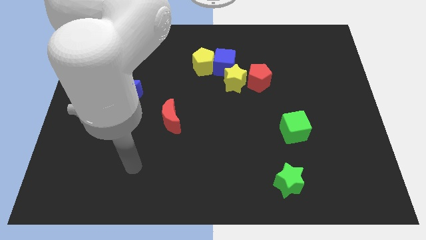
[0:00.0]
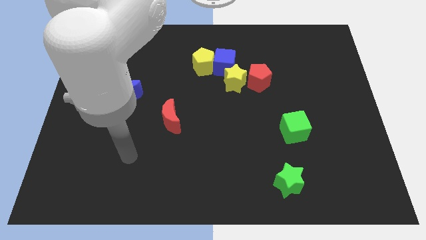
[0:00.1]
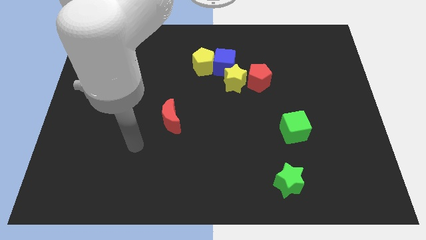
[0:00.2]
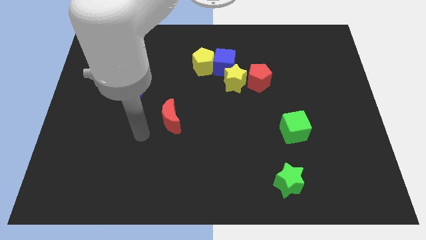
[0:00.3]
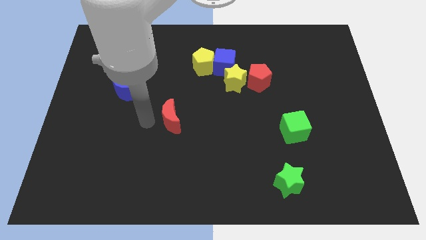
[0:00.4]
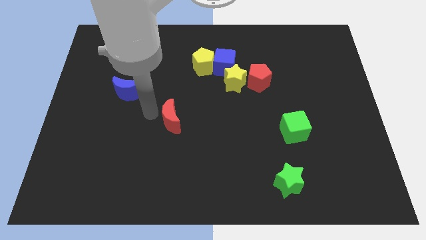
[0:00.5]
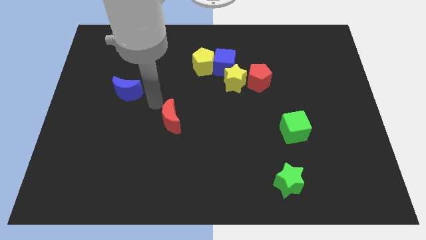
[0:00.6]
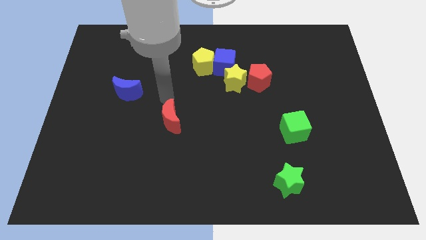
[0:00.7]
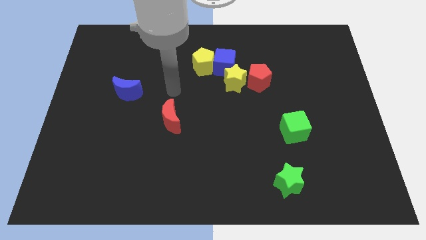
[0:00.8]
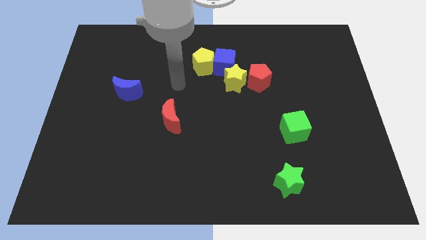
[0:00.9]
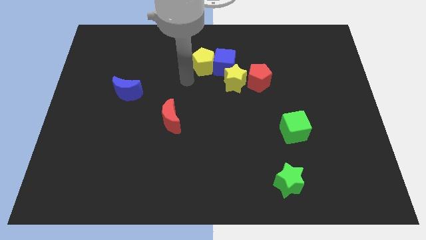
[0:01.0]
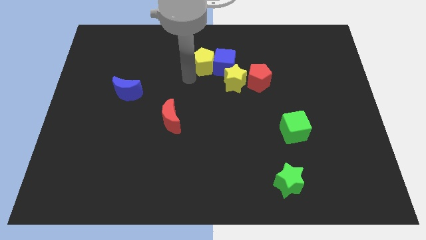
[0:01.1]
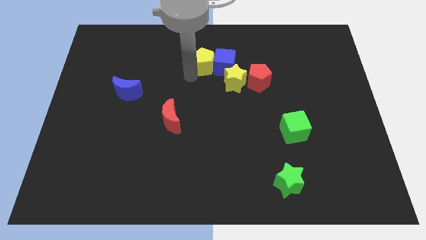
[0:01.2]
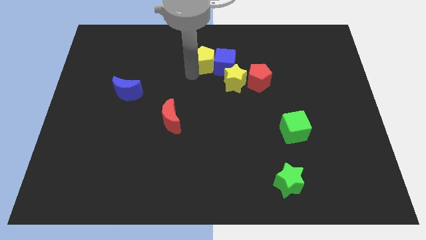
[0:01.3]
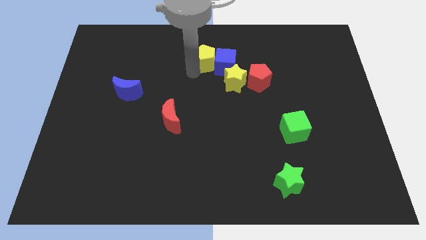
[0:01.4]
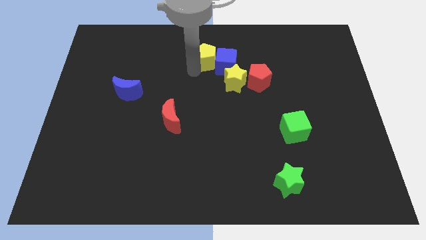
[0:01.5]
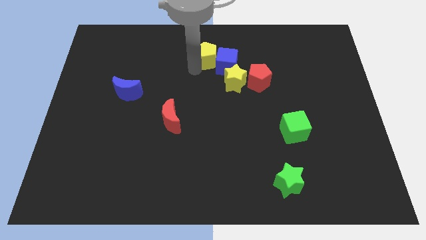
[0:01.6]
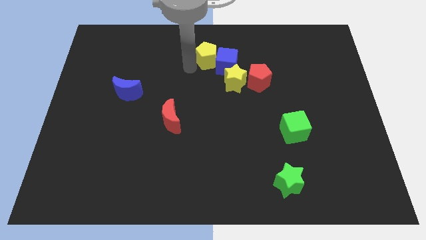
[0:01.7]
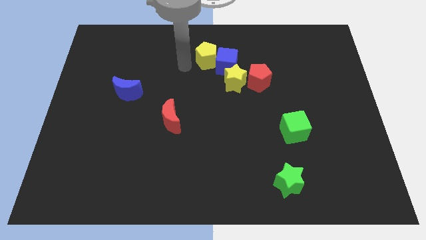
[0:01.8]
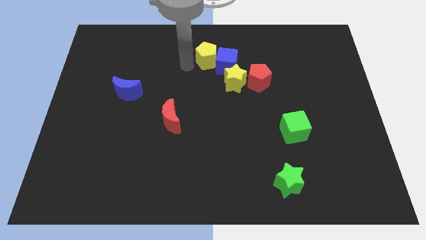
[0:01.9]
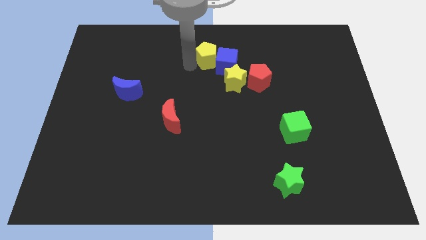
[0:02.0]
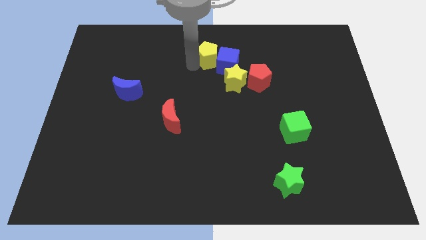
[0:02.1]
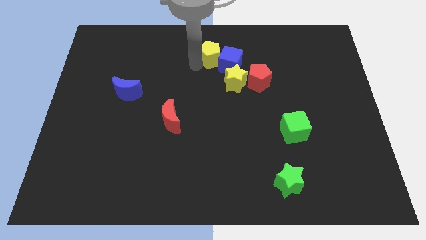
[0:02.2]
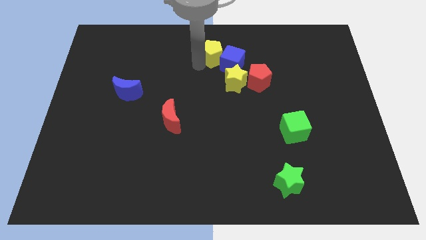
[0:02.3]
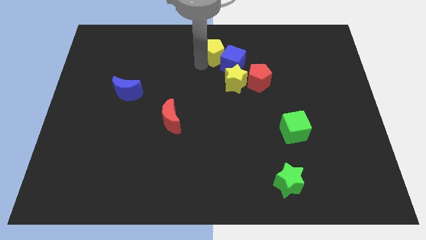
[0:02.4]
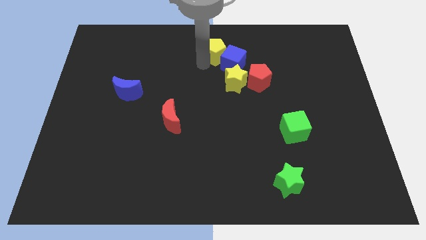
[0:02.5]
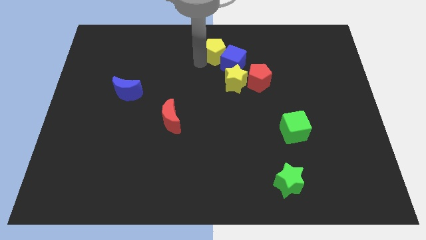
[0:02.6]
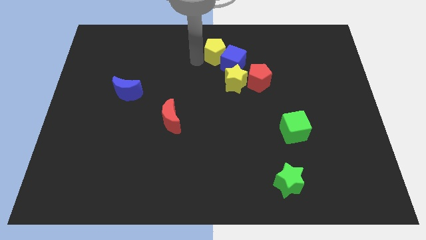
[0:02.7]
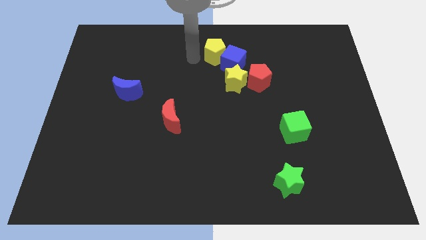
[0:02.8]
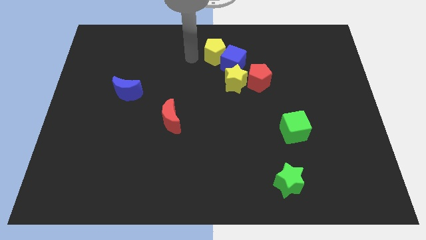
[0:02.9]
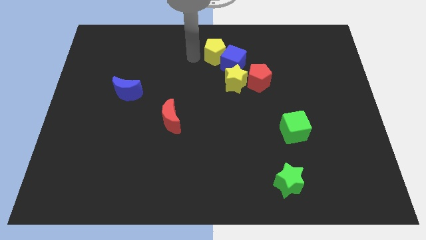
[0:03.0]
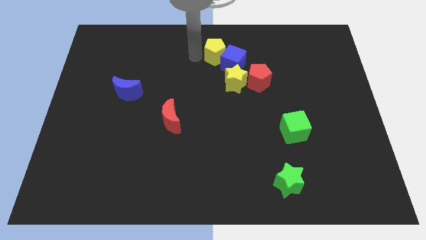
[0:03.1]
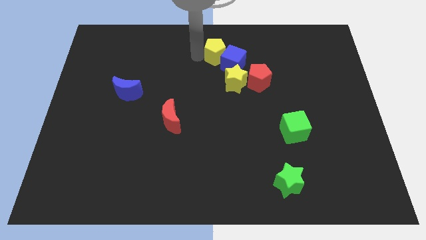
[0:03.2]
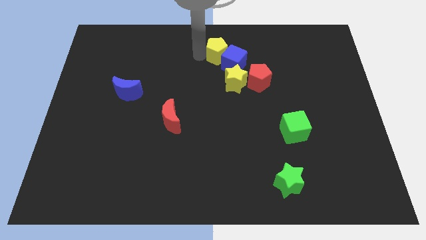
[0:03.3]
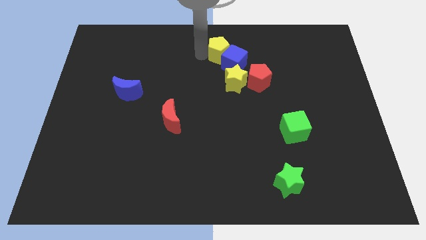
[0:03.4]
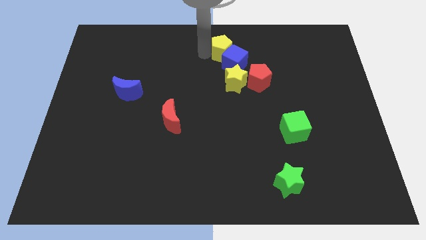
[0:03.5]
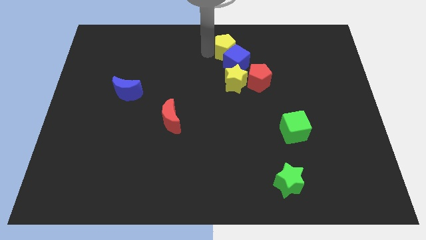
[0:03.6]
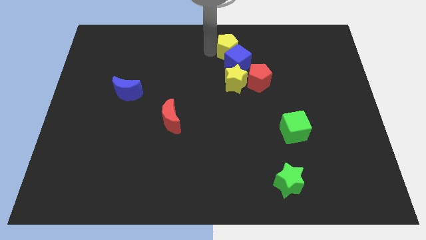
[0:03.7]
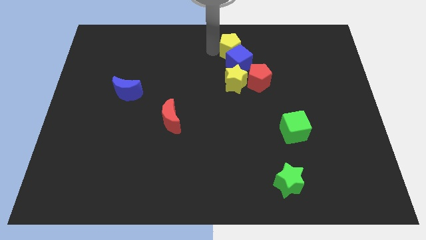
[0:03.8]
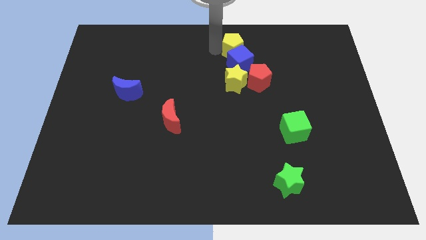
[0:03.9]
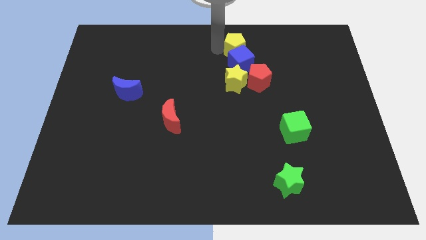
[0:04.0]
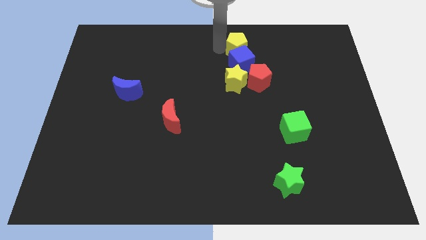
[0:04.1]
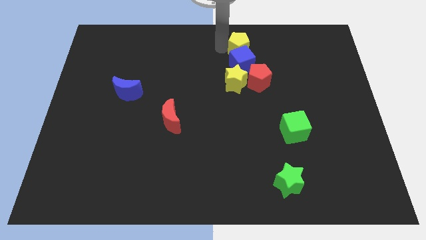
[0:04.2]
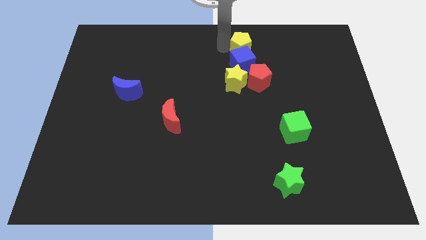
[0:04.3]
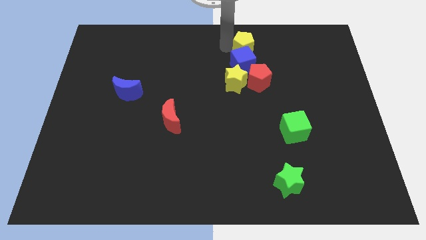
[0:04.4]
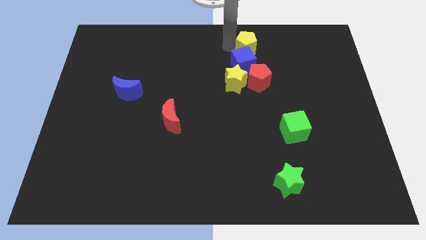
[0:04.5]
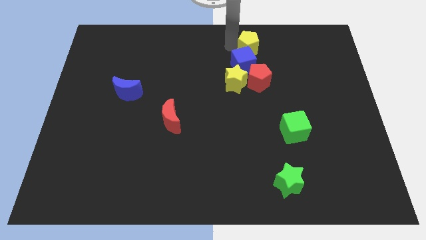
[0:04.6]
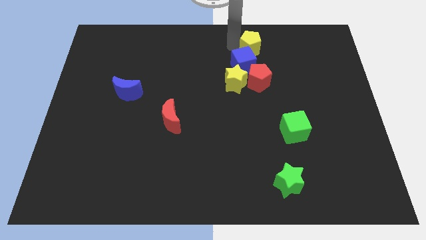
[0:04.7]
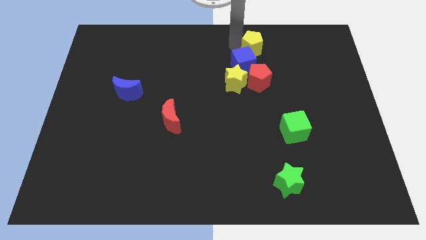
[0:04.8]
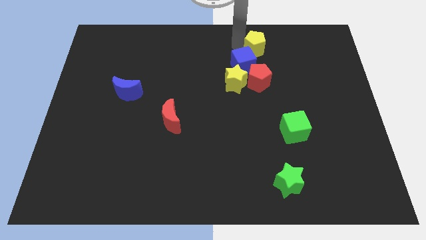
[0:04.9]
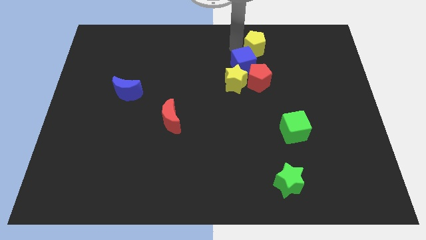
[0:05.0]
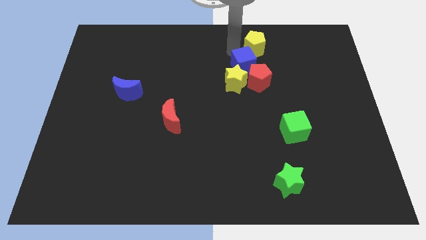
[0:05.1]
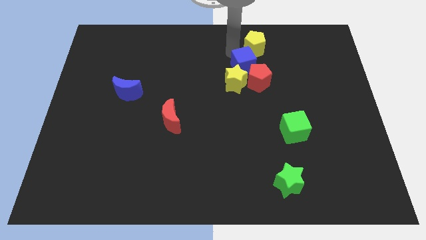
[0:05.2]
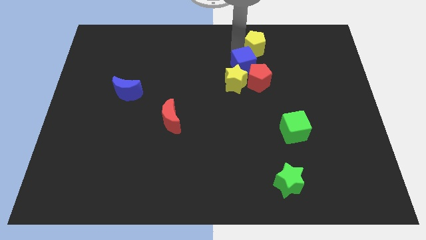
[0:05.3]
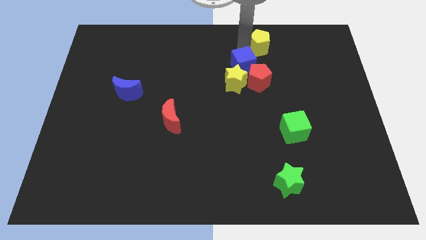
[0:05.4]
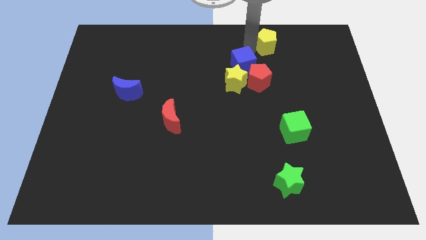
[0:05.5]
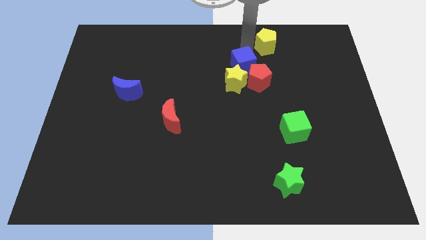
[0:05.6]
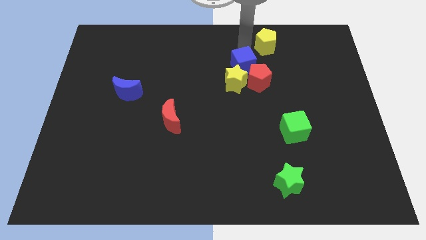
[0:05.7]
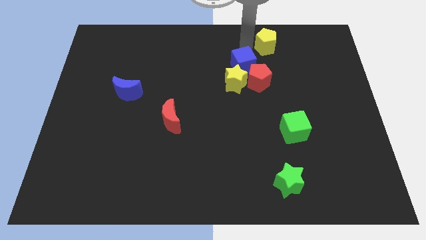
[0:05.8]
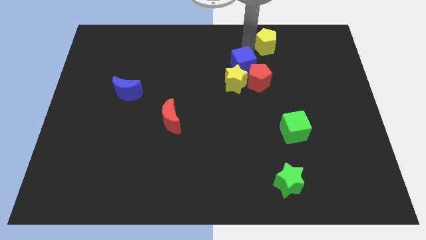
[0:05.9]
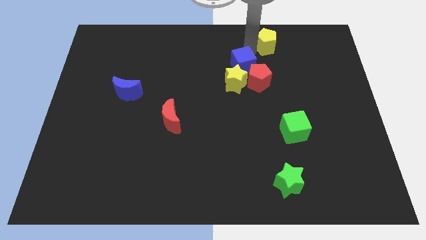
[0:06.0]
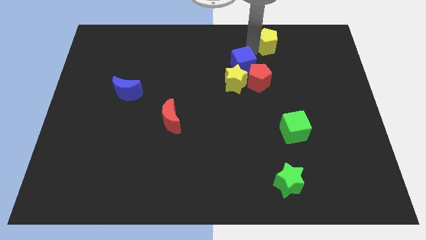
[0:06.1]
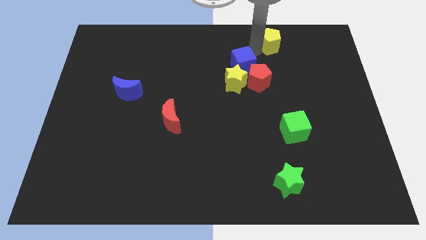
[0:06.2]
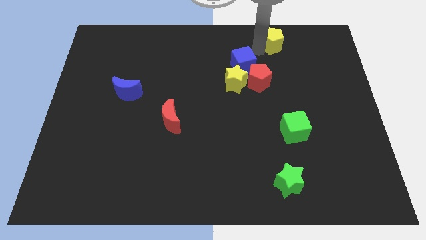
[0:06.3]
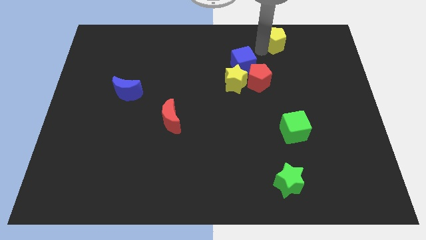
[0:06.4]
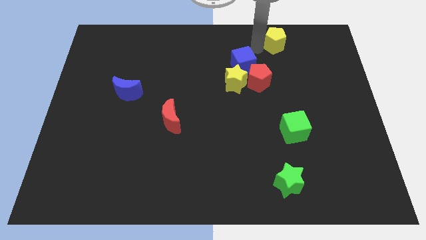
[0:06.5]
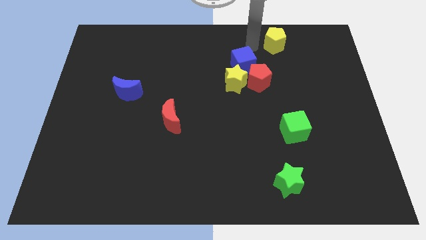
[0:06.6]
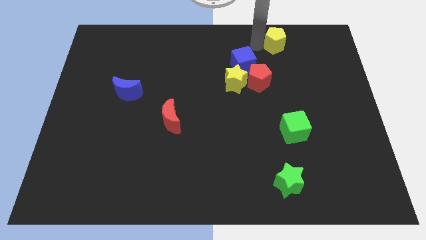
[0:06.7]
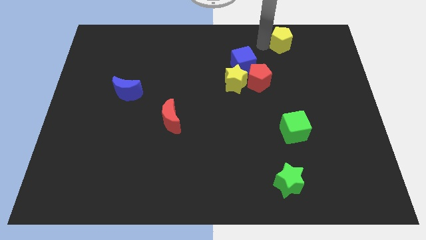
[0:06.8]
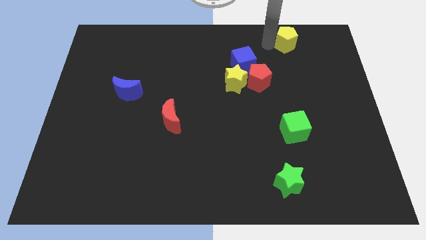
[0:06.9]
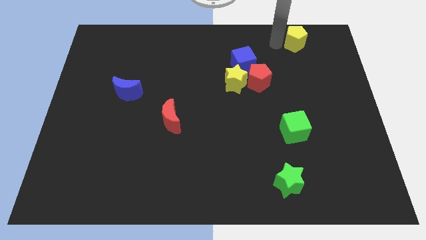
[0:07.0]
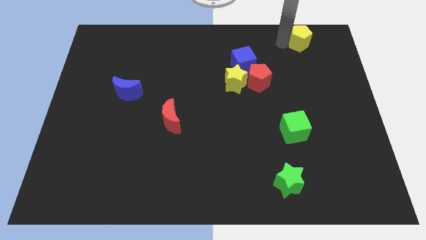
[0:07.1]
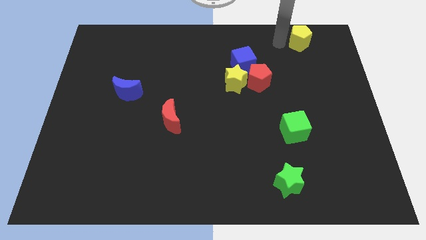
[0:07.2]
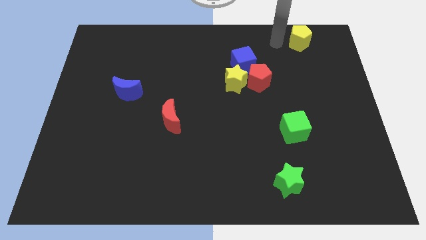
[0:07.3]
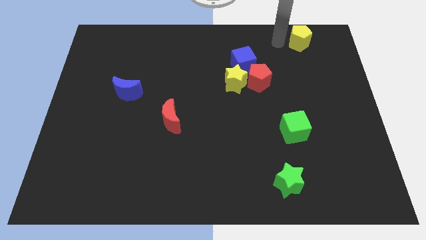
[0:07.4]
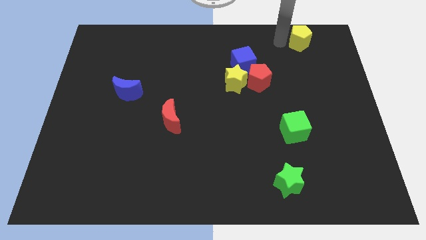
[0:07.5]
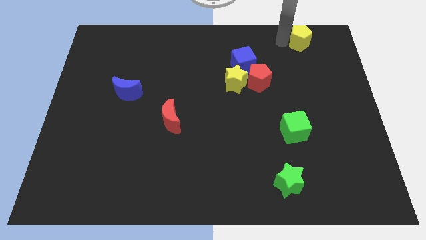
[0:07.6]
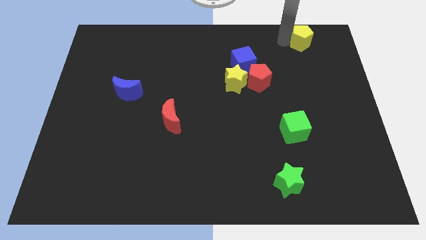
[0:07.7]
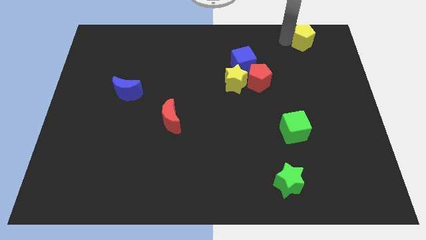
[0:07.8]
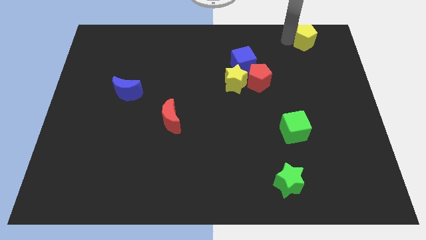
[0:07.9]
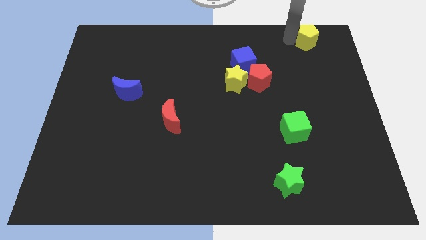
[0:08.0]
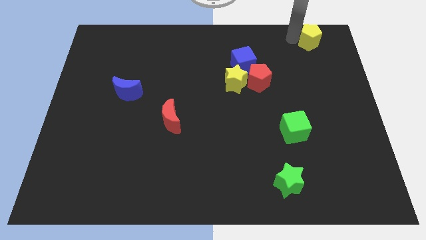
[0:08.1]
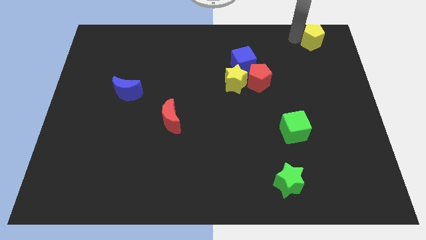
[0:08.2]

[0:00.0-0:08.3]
push the yellow pentagon to the top right
